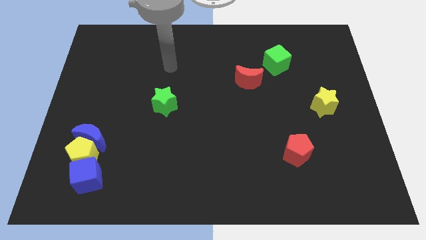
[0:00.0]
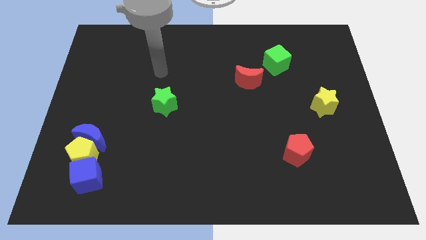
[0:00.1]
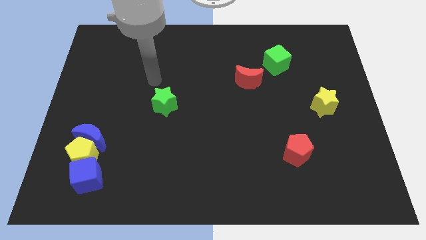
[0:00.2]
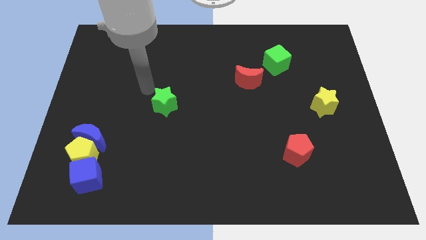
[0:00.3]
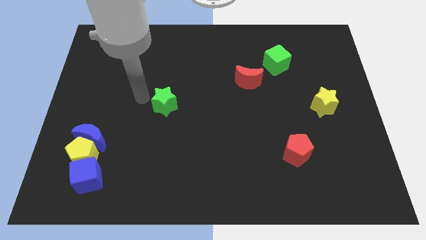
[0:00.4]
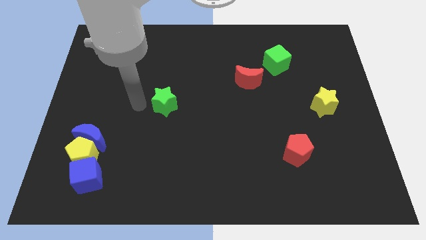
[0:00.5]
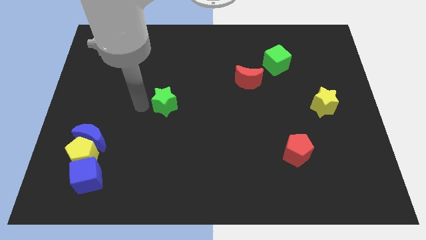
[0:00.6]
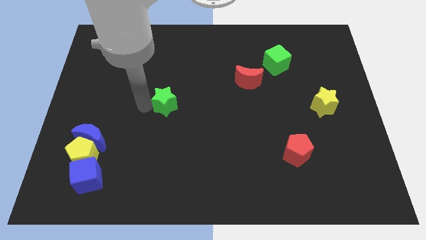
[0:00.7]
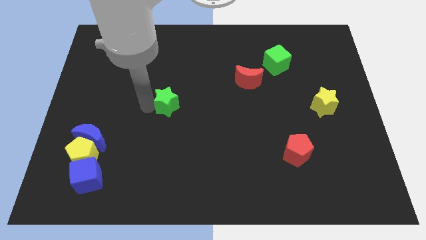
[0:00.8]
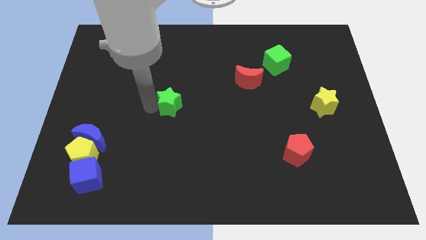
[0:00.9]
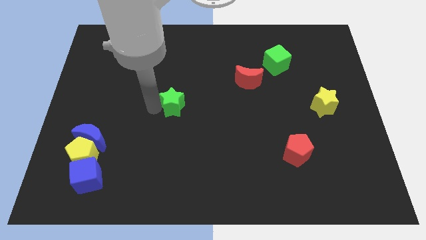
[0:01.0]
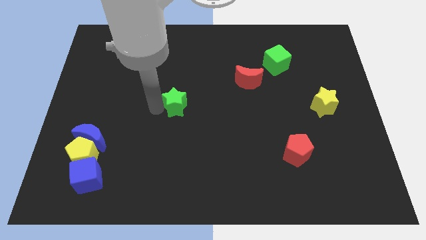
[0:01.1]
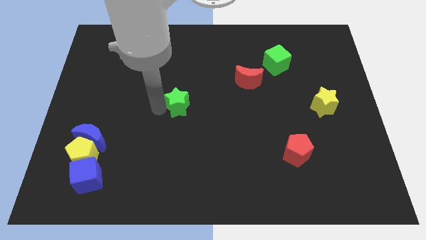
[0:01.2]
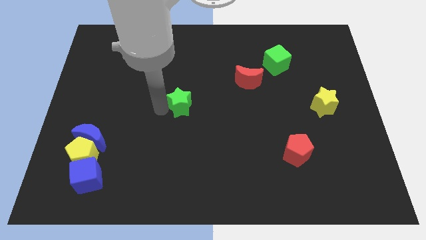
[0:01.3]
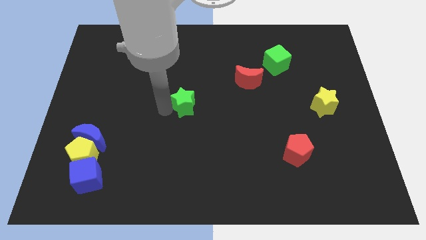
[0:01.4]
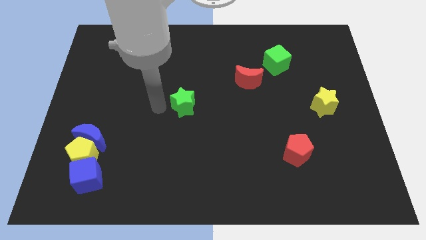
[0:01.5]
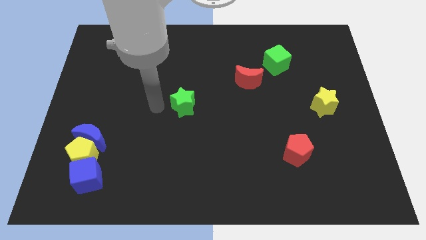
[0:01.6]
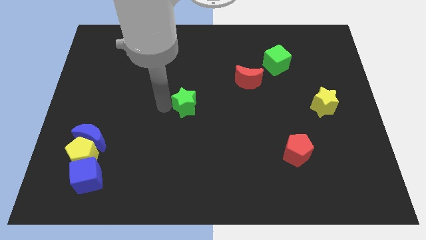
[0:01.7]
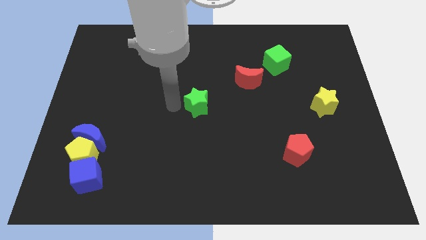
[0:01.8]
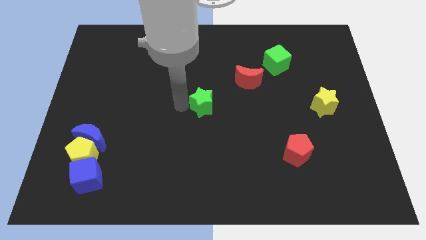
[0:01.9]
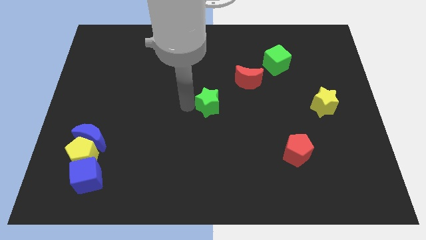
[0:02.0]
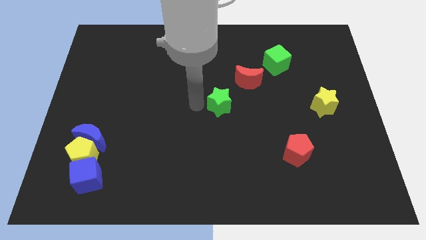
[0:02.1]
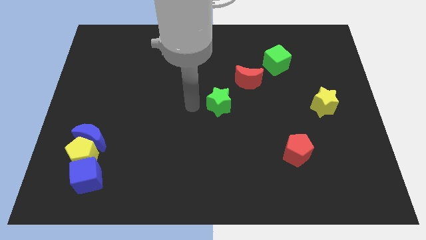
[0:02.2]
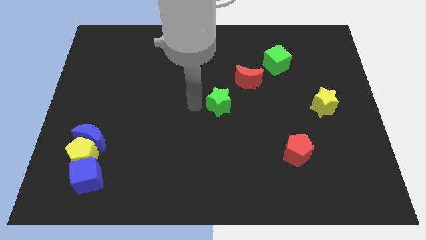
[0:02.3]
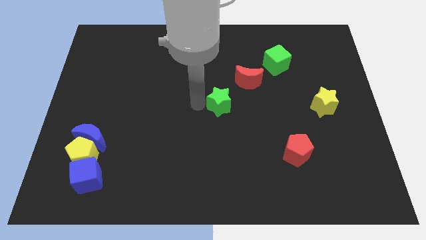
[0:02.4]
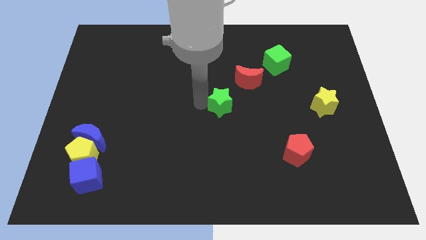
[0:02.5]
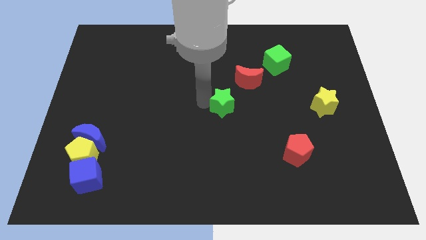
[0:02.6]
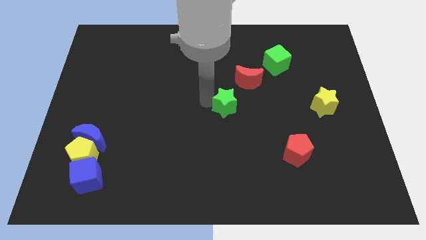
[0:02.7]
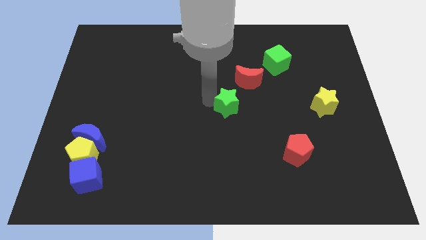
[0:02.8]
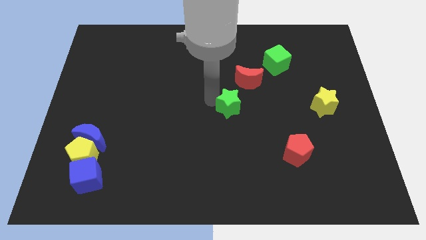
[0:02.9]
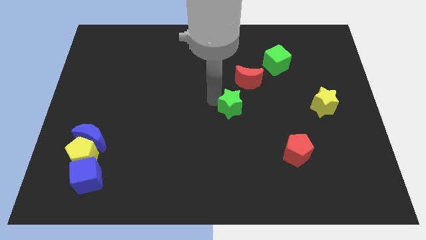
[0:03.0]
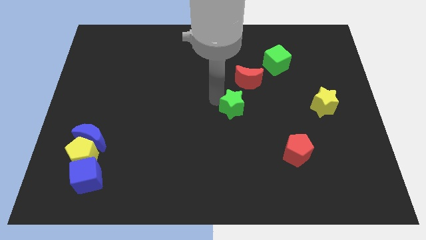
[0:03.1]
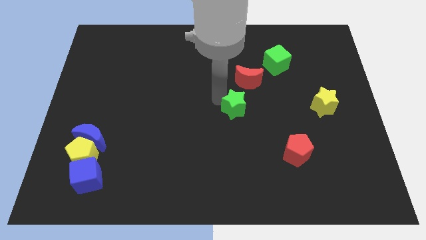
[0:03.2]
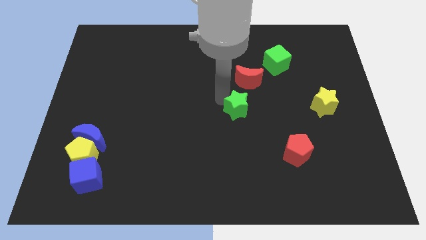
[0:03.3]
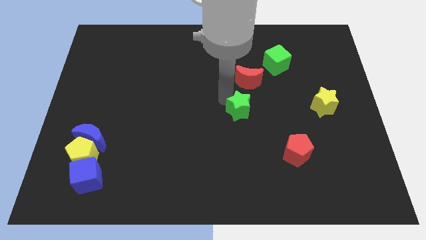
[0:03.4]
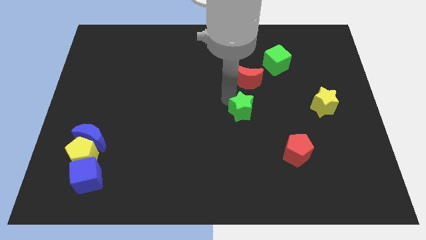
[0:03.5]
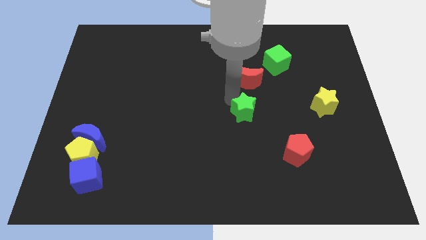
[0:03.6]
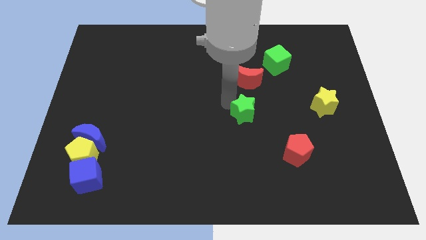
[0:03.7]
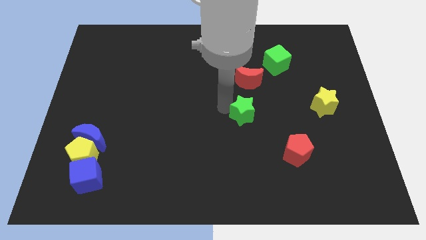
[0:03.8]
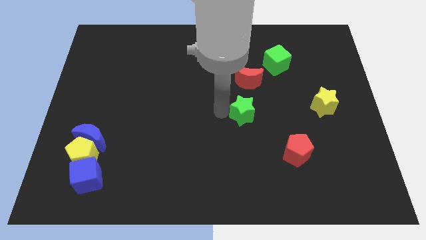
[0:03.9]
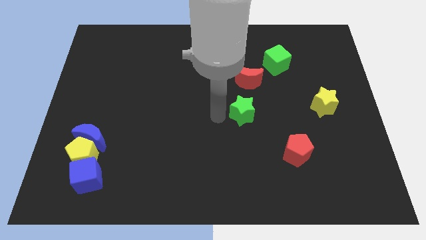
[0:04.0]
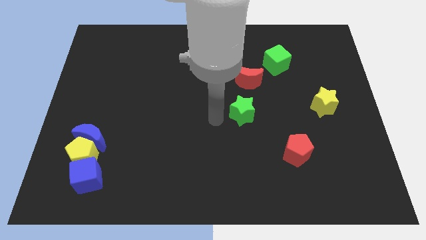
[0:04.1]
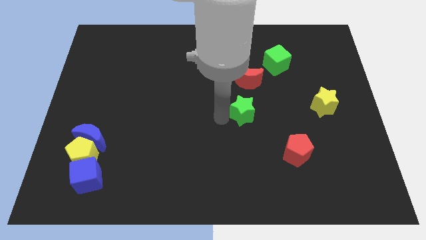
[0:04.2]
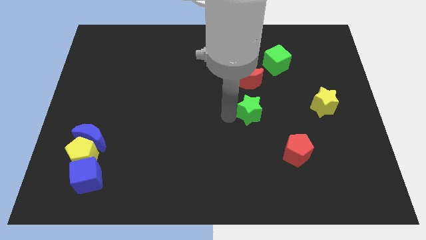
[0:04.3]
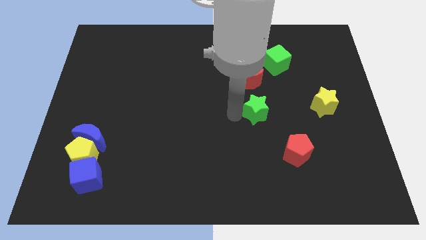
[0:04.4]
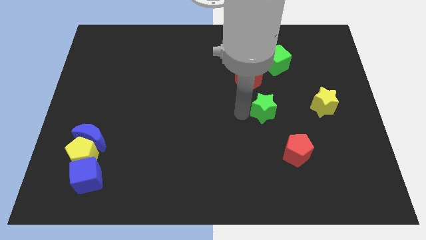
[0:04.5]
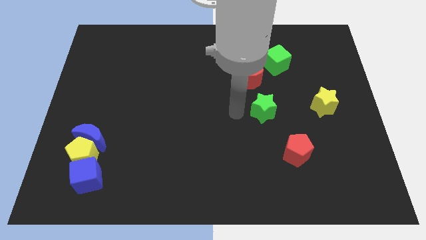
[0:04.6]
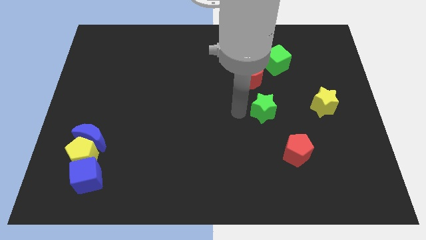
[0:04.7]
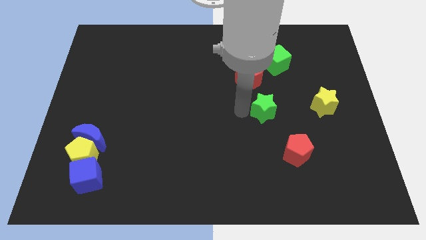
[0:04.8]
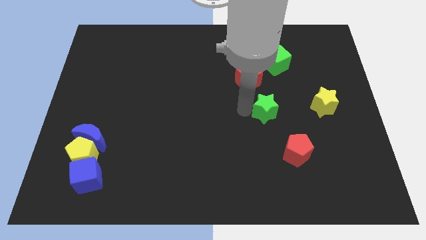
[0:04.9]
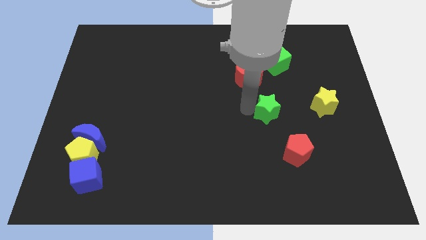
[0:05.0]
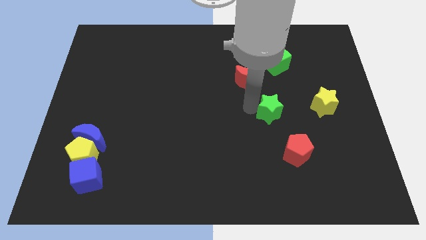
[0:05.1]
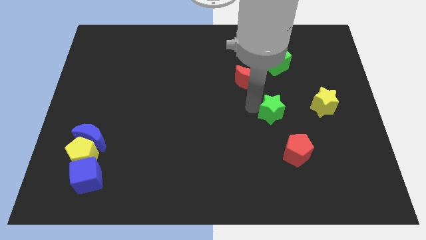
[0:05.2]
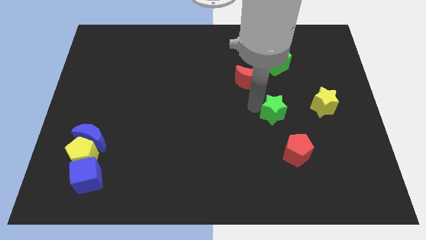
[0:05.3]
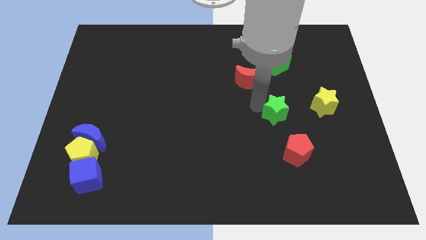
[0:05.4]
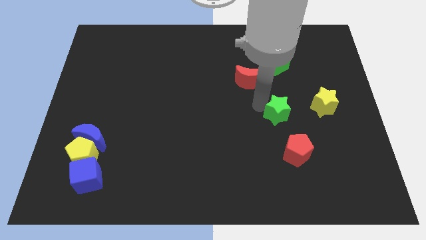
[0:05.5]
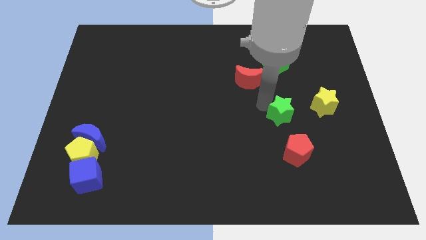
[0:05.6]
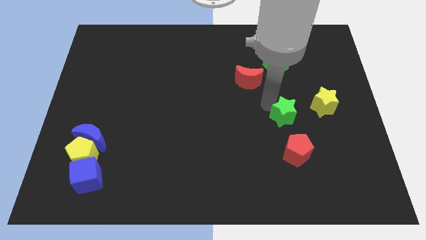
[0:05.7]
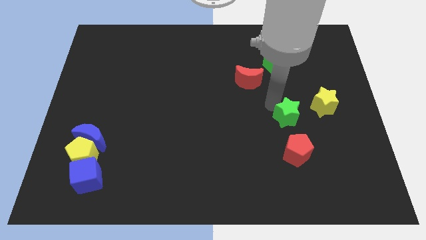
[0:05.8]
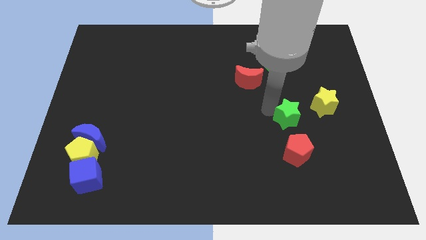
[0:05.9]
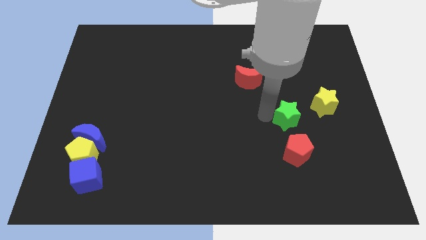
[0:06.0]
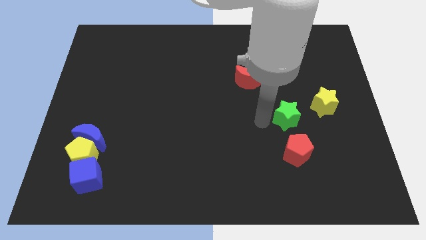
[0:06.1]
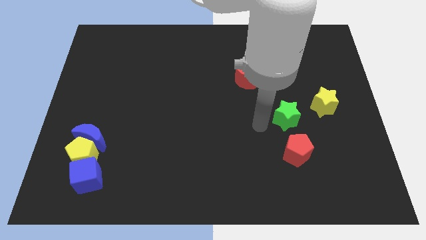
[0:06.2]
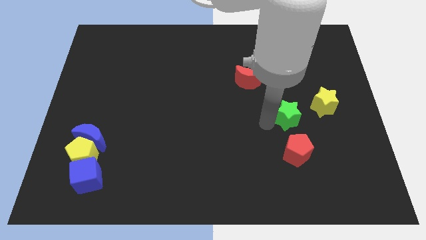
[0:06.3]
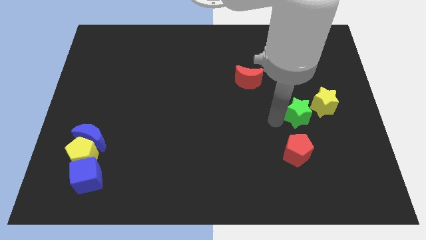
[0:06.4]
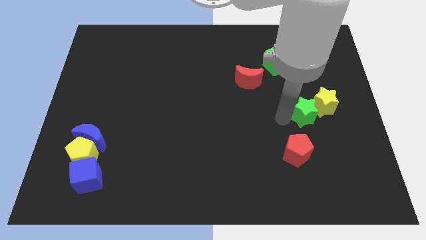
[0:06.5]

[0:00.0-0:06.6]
put the green star close to the yellow star

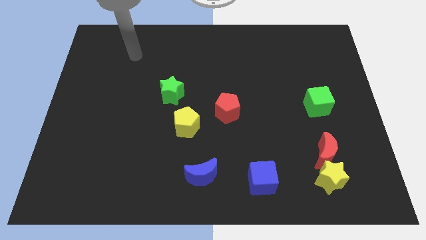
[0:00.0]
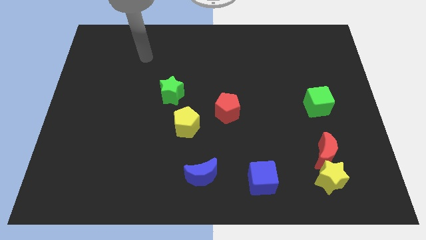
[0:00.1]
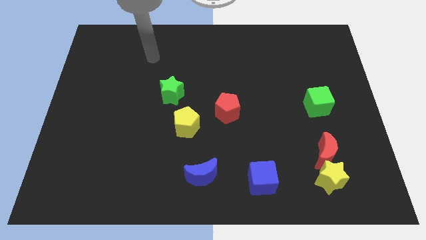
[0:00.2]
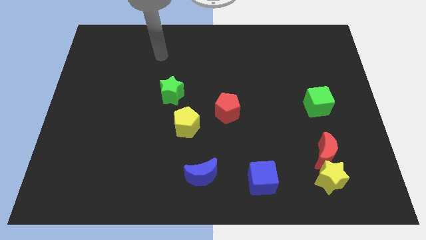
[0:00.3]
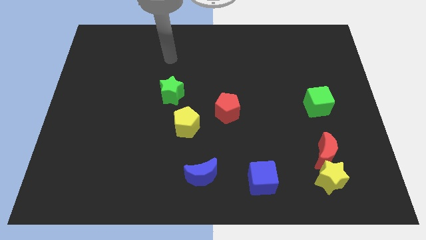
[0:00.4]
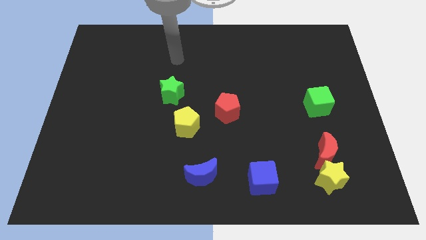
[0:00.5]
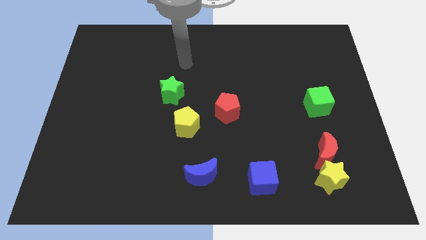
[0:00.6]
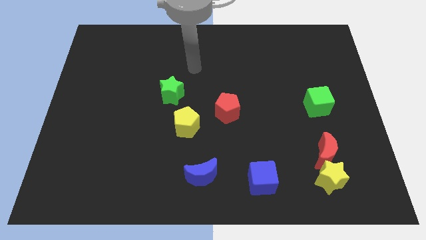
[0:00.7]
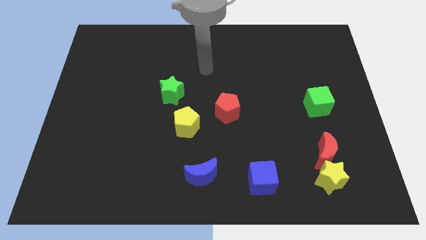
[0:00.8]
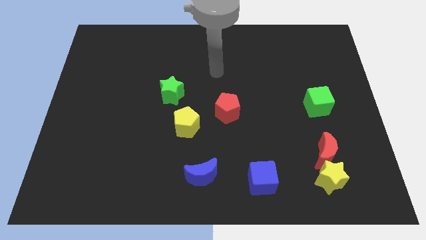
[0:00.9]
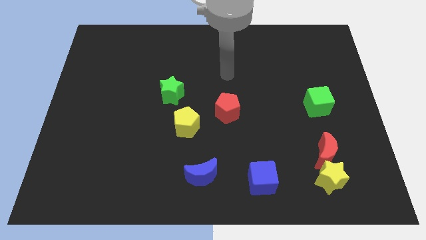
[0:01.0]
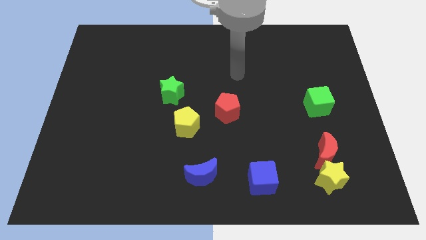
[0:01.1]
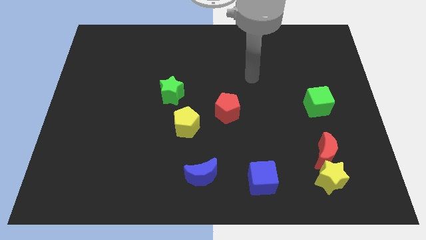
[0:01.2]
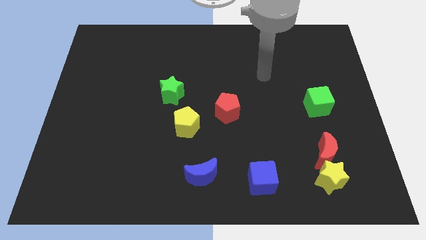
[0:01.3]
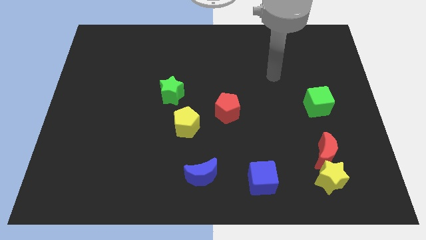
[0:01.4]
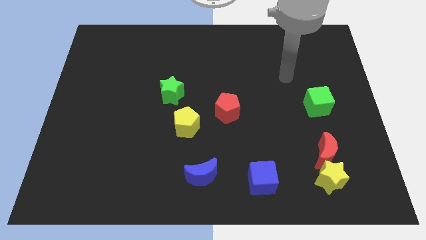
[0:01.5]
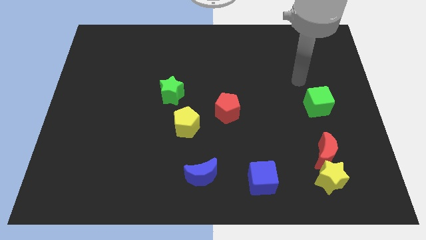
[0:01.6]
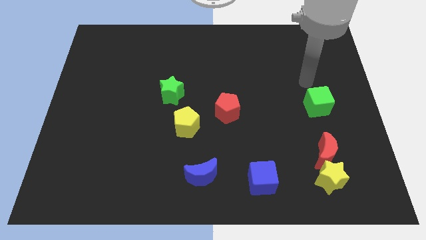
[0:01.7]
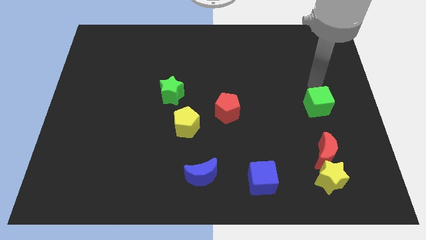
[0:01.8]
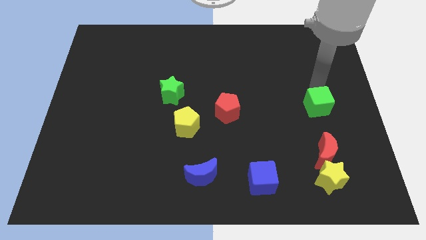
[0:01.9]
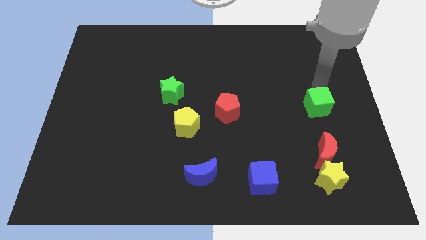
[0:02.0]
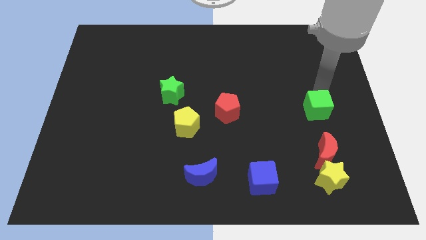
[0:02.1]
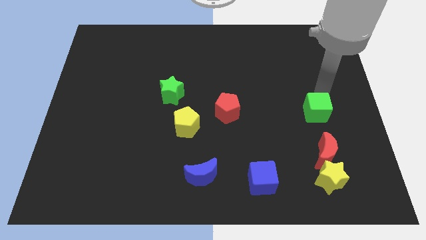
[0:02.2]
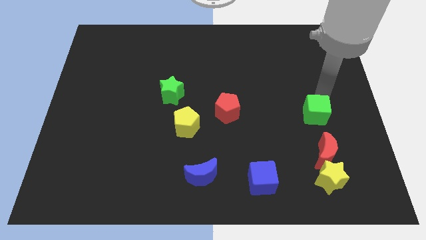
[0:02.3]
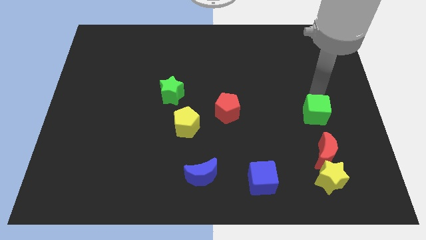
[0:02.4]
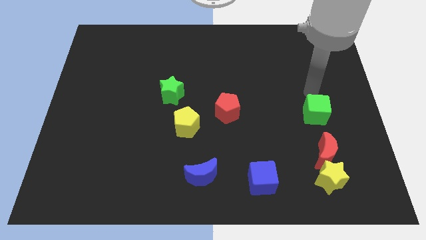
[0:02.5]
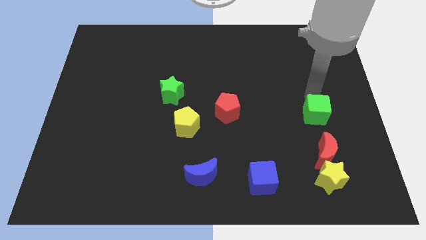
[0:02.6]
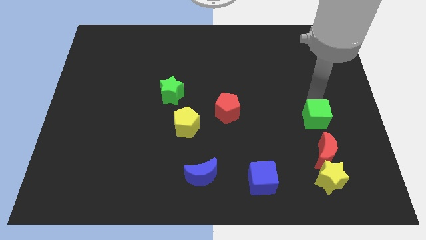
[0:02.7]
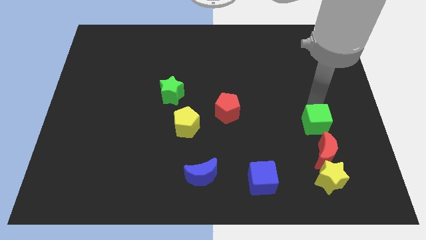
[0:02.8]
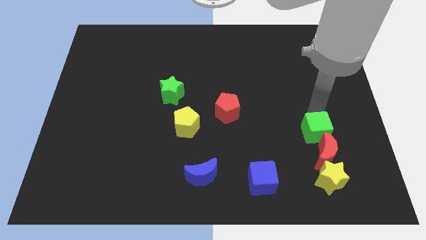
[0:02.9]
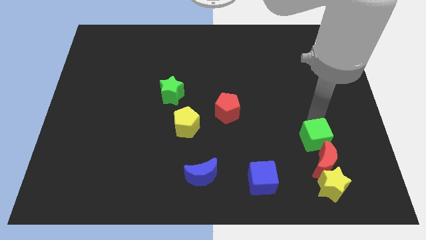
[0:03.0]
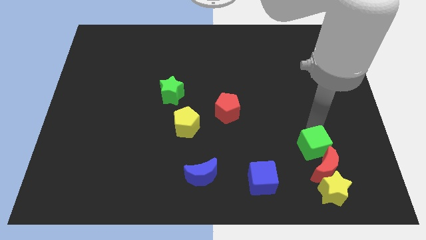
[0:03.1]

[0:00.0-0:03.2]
slide the green cube close to the red moon
